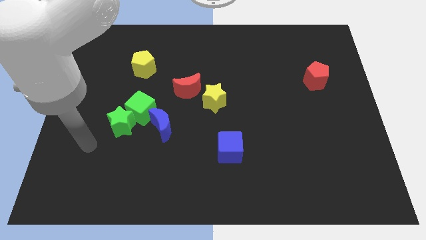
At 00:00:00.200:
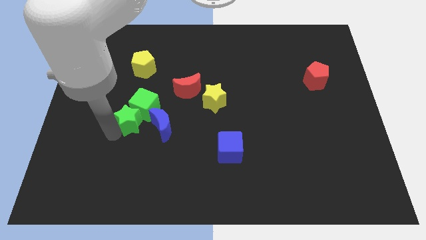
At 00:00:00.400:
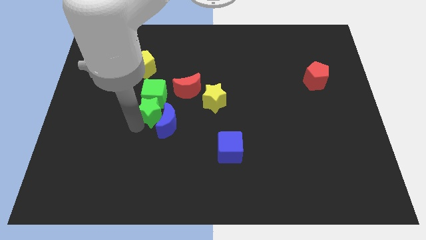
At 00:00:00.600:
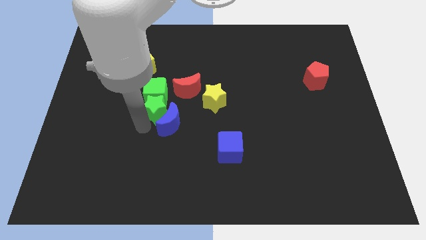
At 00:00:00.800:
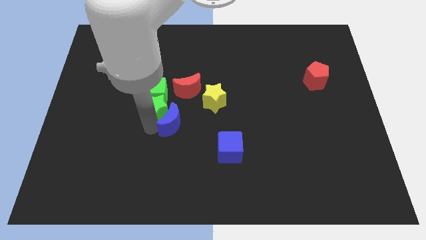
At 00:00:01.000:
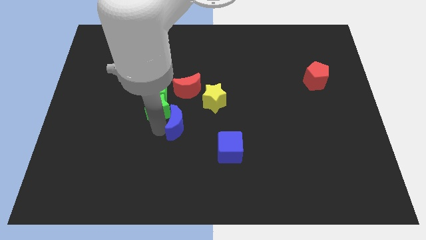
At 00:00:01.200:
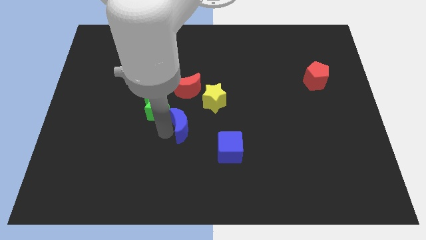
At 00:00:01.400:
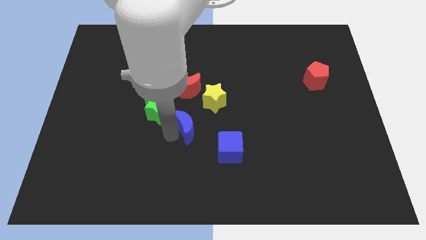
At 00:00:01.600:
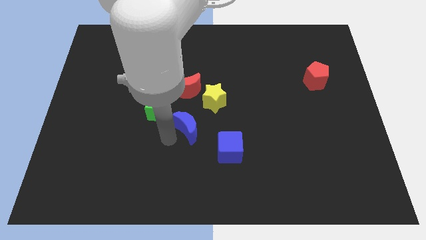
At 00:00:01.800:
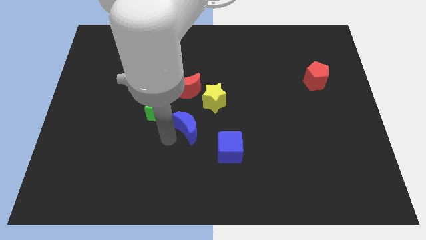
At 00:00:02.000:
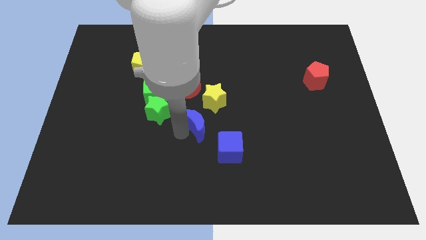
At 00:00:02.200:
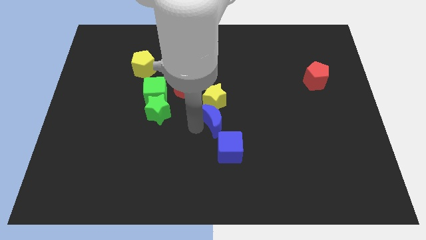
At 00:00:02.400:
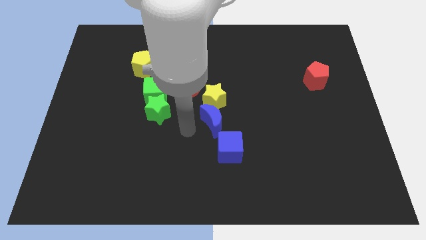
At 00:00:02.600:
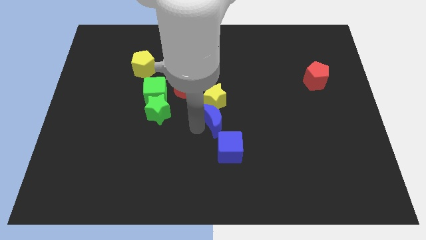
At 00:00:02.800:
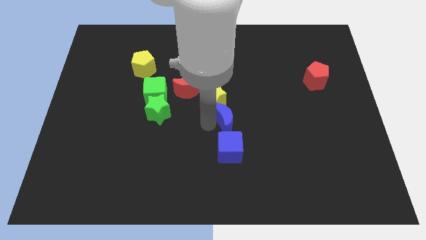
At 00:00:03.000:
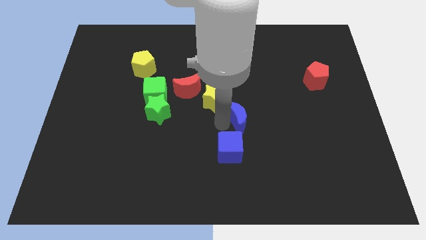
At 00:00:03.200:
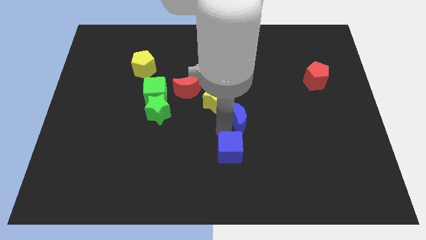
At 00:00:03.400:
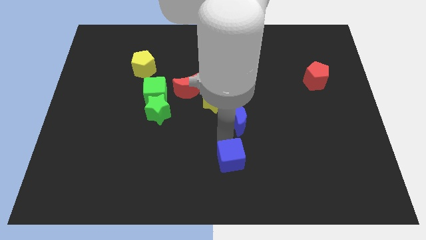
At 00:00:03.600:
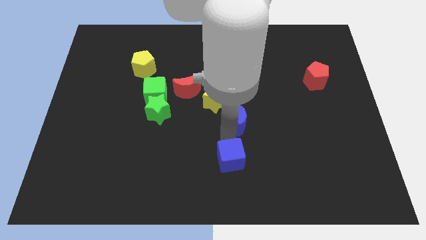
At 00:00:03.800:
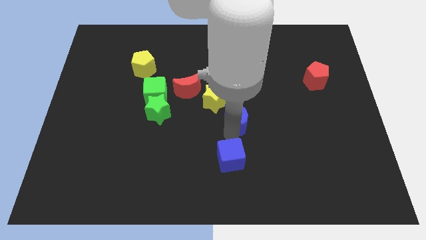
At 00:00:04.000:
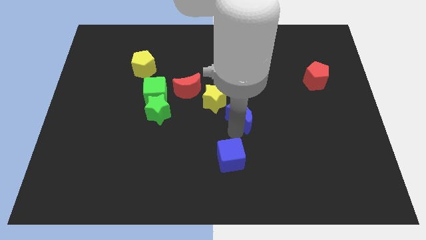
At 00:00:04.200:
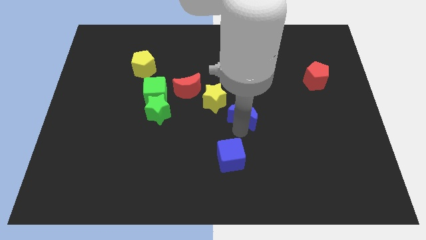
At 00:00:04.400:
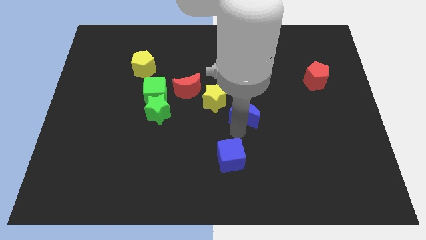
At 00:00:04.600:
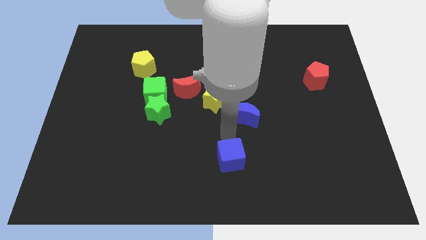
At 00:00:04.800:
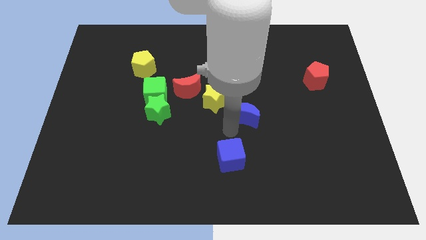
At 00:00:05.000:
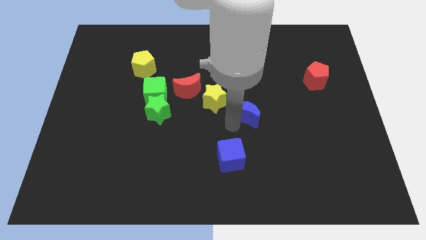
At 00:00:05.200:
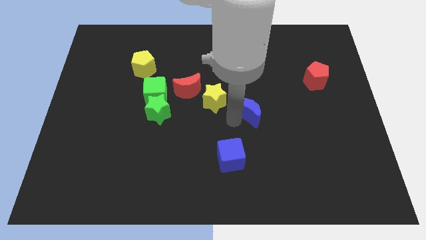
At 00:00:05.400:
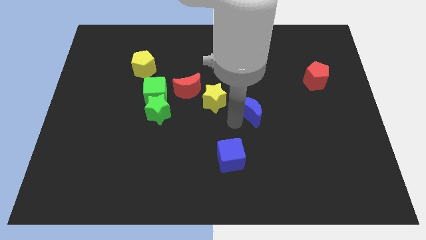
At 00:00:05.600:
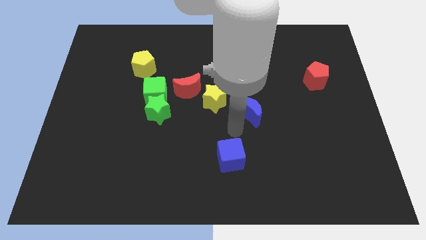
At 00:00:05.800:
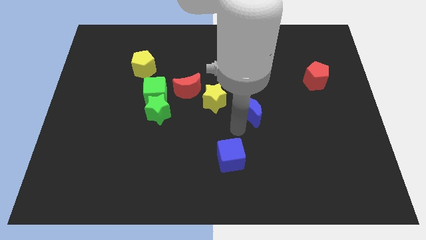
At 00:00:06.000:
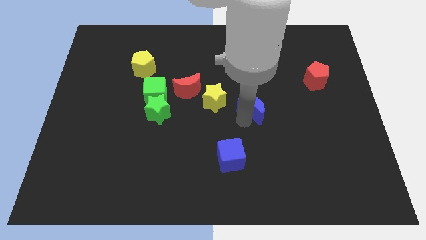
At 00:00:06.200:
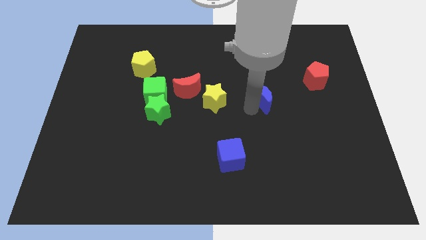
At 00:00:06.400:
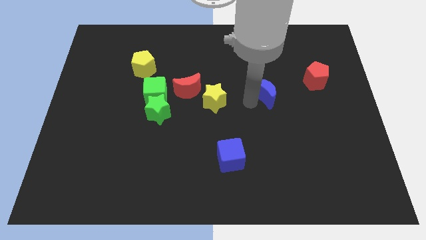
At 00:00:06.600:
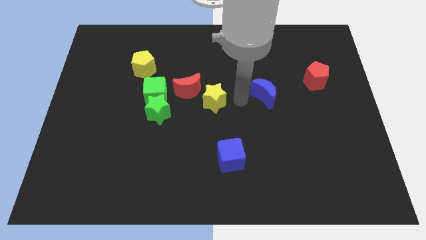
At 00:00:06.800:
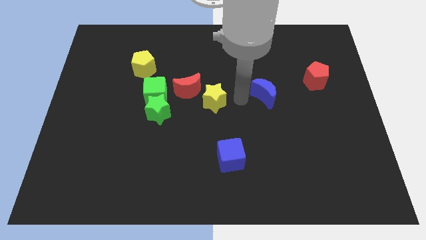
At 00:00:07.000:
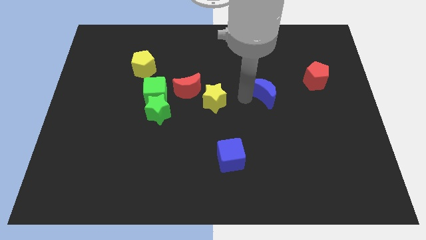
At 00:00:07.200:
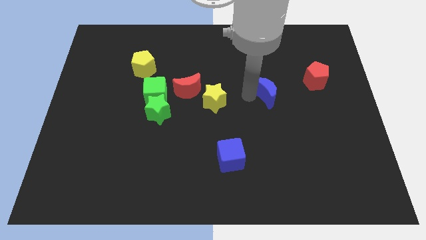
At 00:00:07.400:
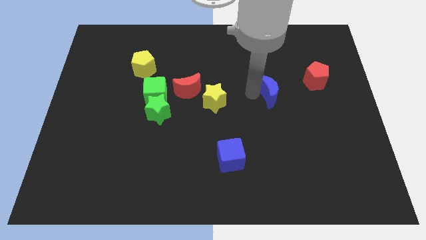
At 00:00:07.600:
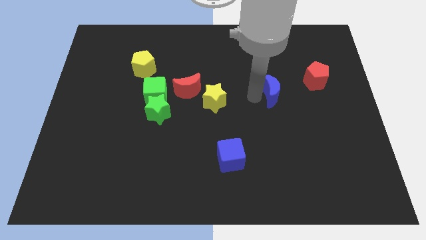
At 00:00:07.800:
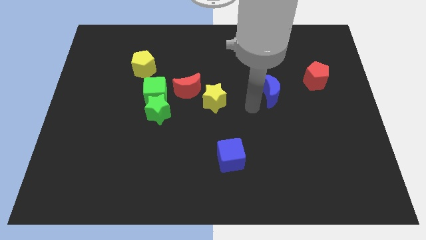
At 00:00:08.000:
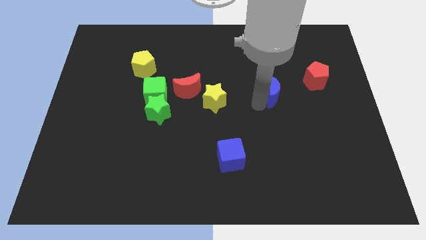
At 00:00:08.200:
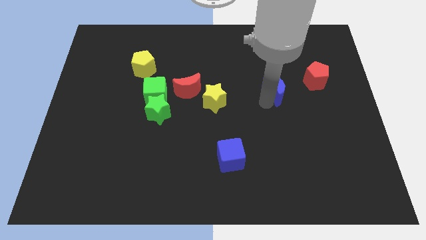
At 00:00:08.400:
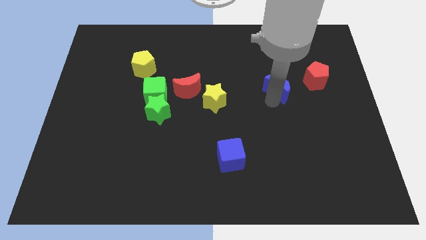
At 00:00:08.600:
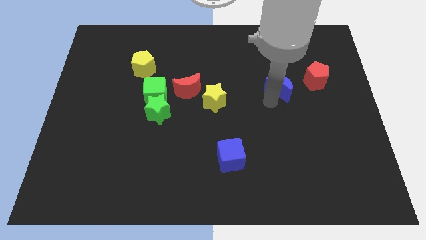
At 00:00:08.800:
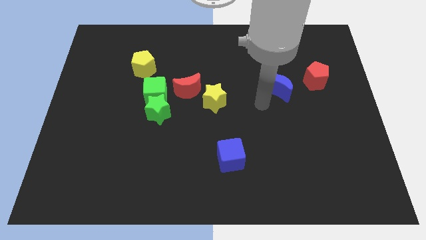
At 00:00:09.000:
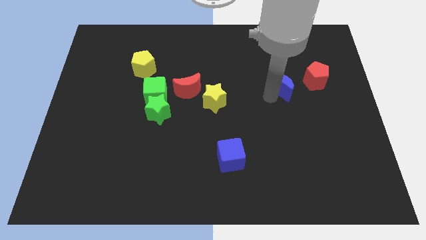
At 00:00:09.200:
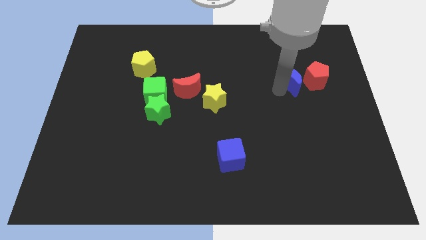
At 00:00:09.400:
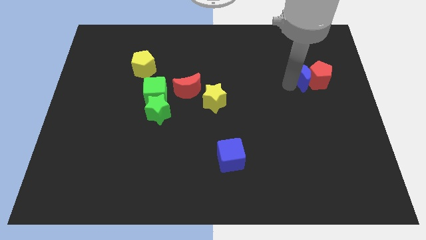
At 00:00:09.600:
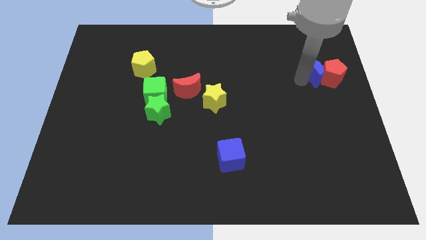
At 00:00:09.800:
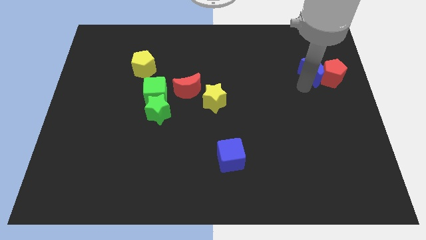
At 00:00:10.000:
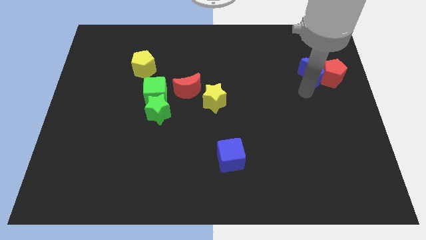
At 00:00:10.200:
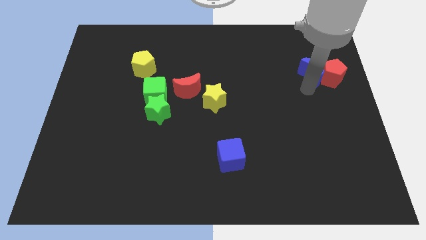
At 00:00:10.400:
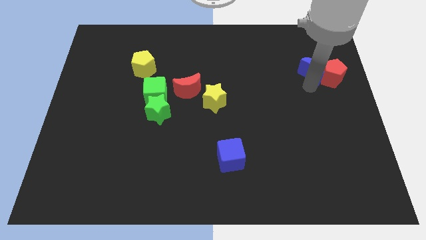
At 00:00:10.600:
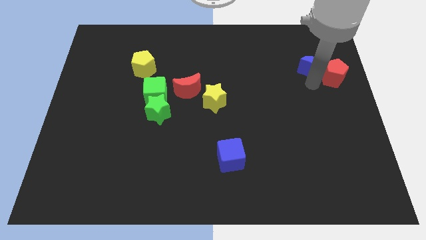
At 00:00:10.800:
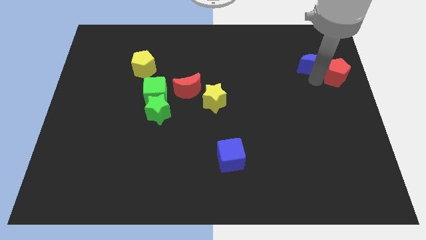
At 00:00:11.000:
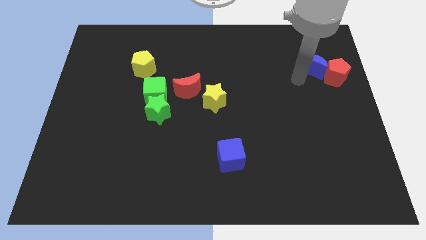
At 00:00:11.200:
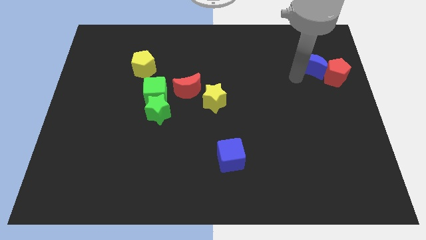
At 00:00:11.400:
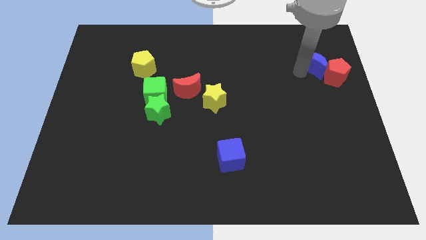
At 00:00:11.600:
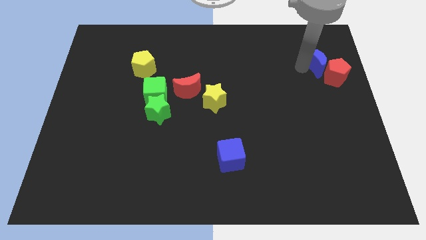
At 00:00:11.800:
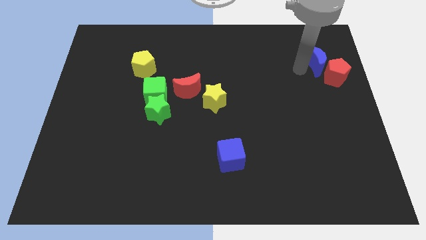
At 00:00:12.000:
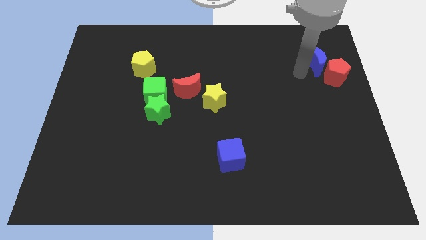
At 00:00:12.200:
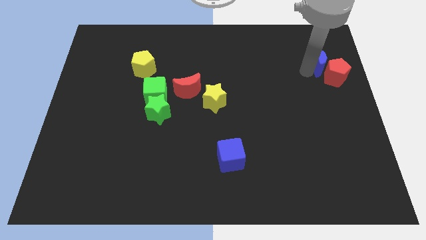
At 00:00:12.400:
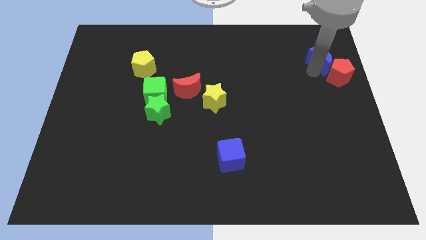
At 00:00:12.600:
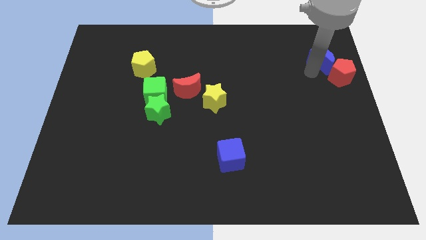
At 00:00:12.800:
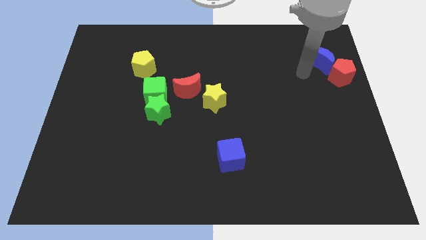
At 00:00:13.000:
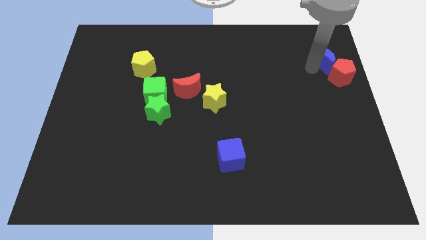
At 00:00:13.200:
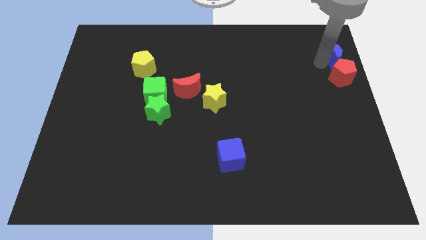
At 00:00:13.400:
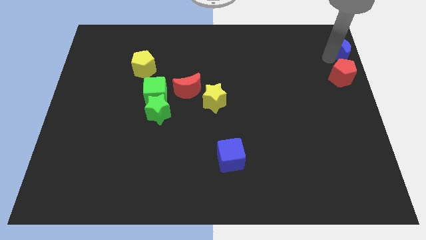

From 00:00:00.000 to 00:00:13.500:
slide the blue moon to the top right of the board
